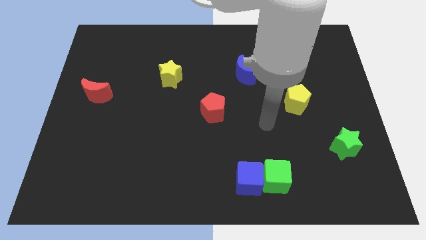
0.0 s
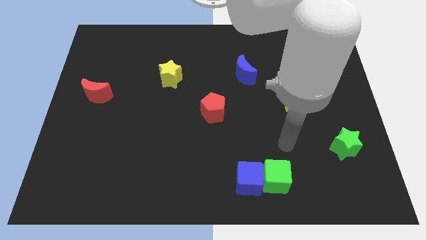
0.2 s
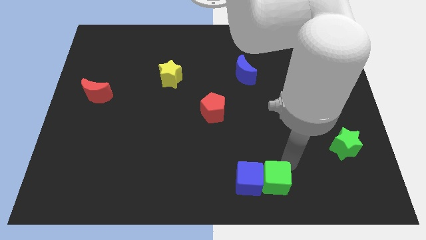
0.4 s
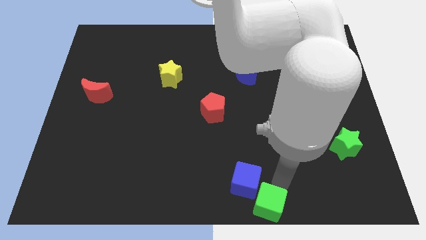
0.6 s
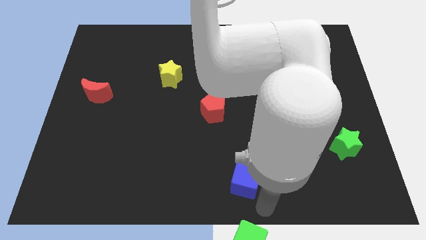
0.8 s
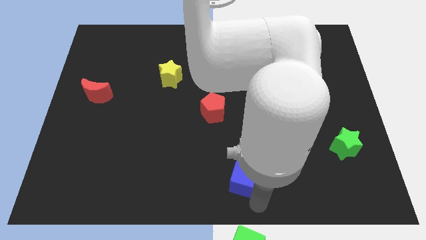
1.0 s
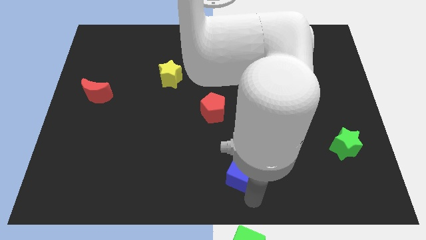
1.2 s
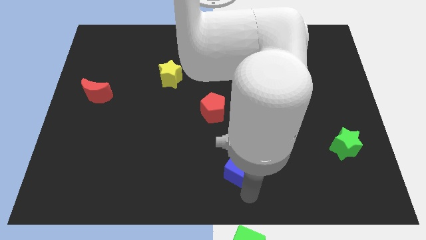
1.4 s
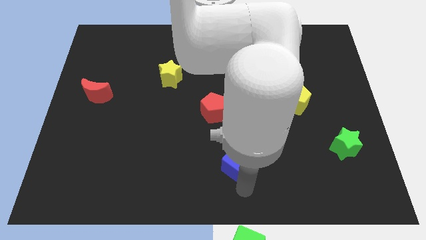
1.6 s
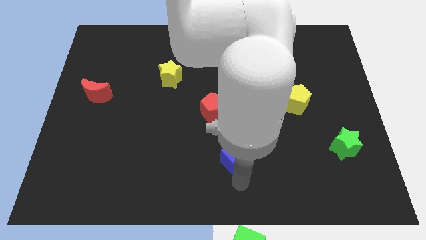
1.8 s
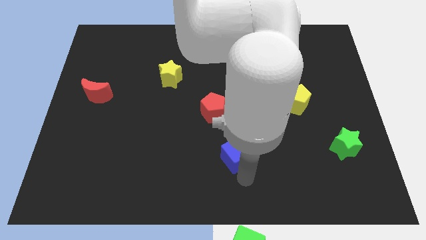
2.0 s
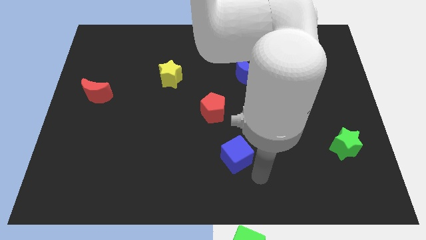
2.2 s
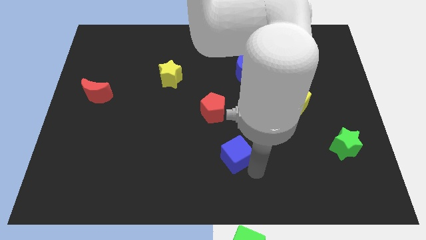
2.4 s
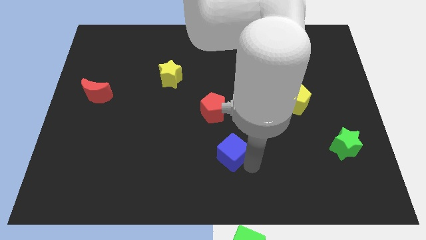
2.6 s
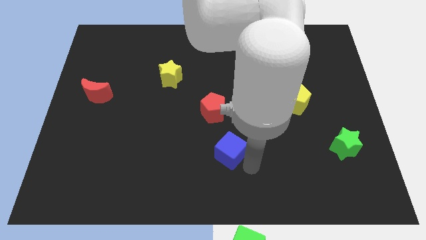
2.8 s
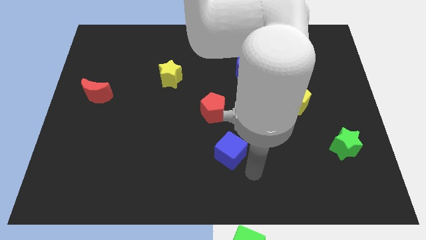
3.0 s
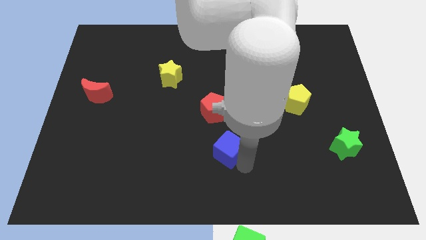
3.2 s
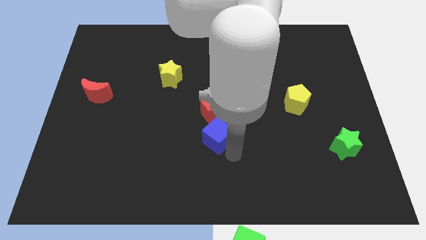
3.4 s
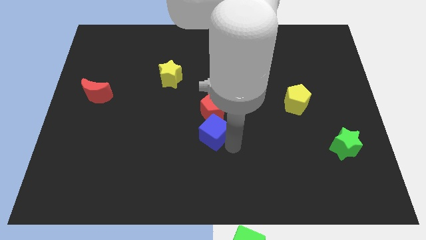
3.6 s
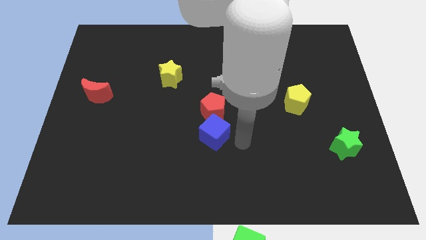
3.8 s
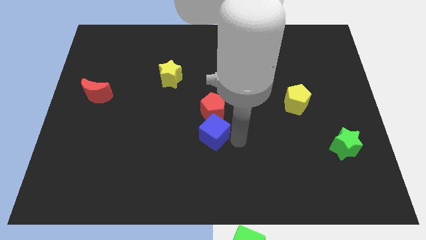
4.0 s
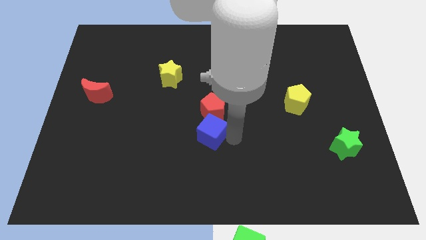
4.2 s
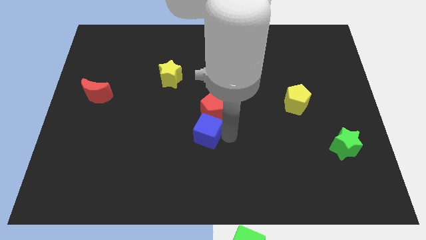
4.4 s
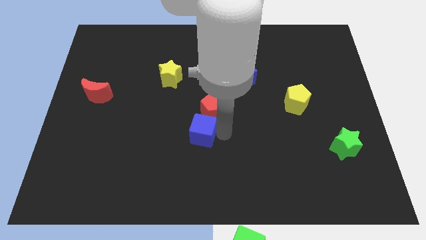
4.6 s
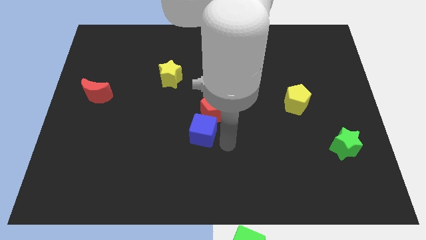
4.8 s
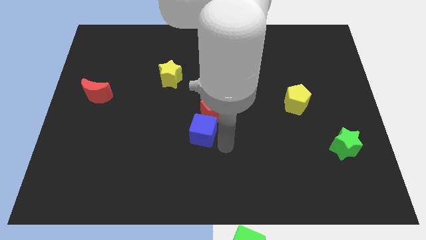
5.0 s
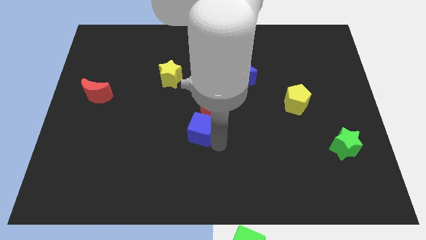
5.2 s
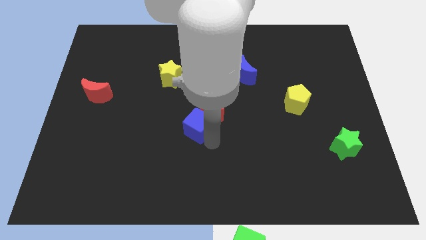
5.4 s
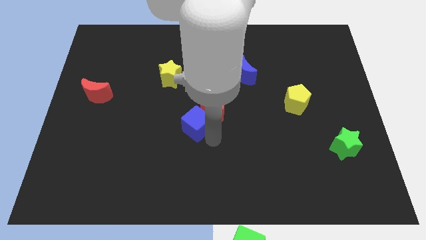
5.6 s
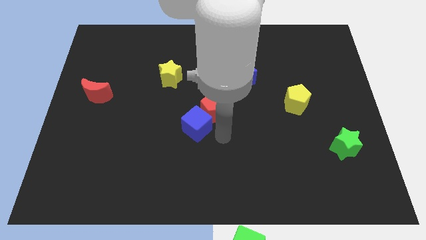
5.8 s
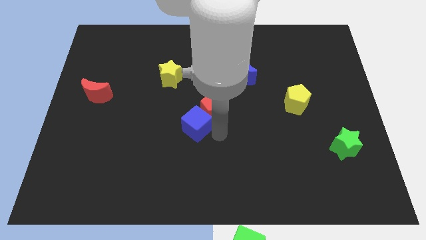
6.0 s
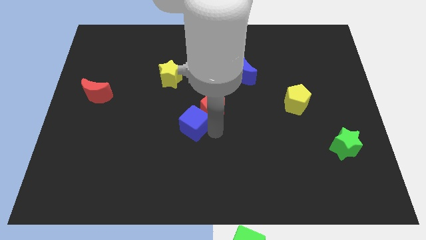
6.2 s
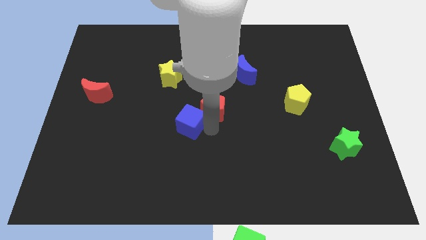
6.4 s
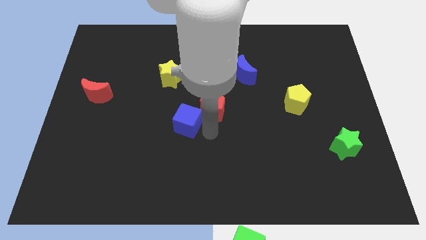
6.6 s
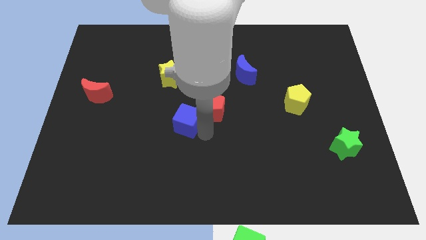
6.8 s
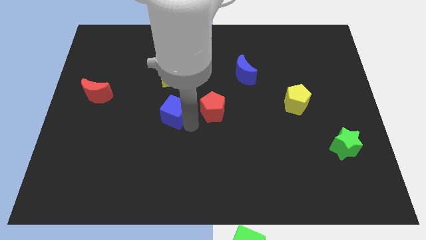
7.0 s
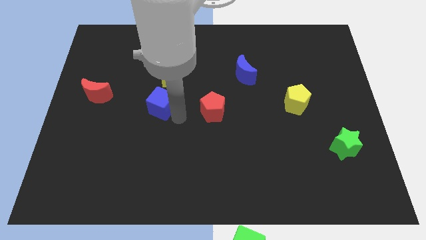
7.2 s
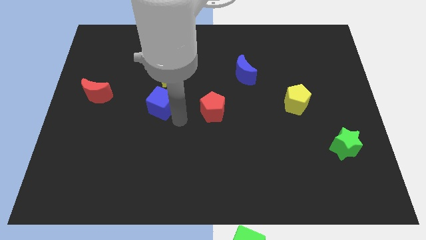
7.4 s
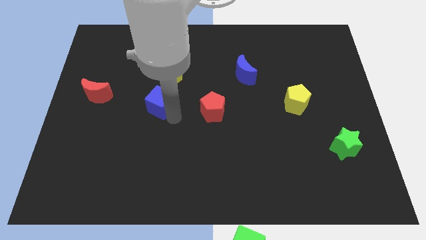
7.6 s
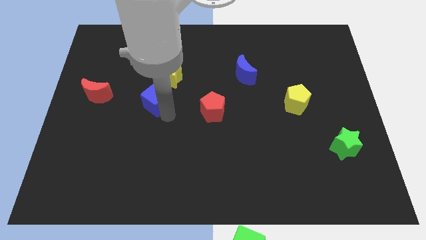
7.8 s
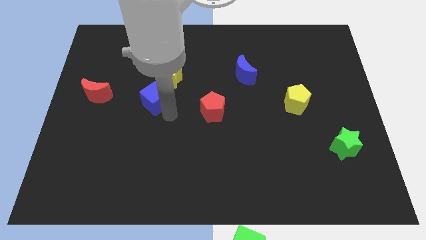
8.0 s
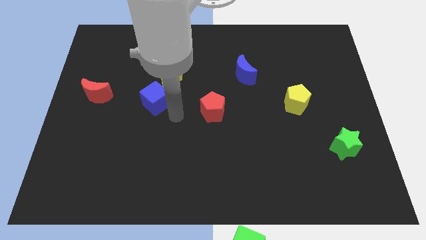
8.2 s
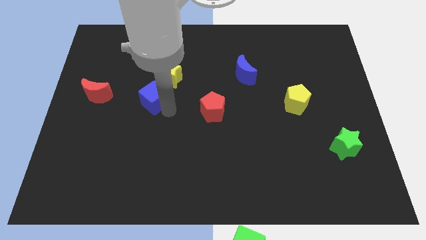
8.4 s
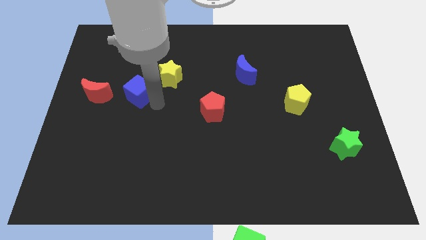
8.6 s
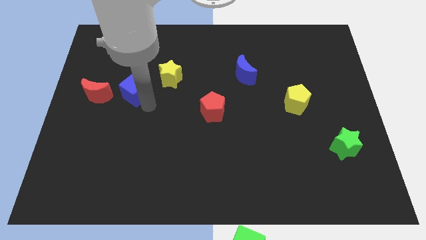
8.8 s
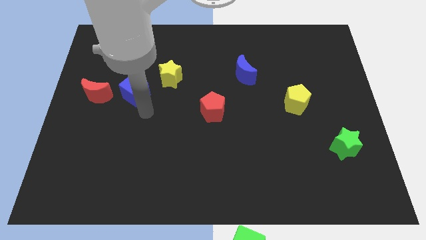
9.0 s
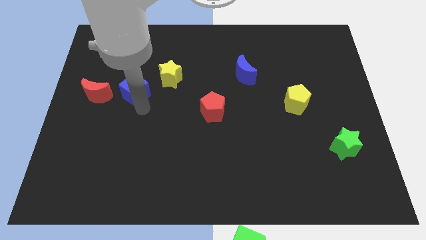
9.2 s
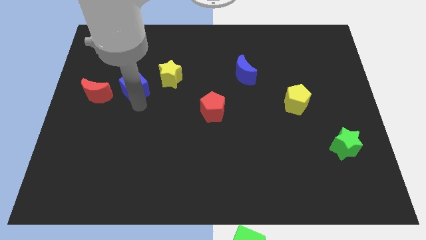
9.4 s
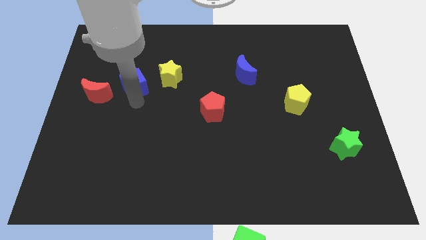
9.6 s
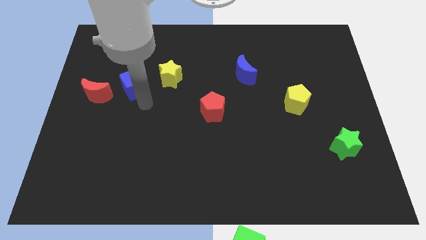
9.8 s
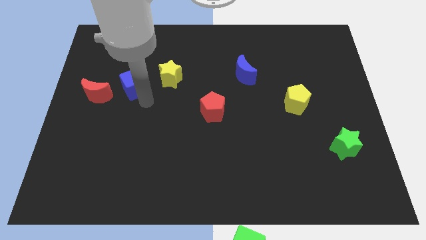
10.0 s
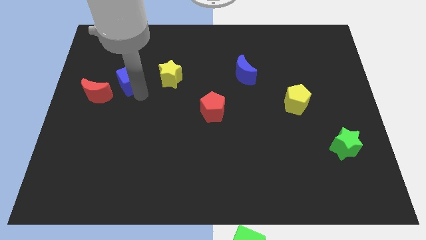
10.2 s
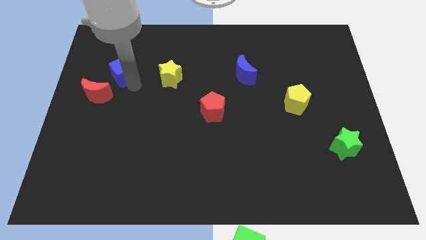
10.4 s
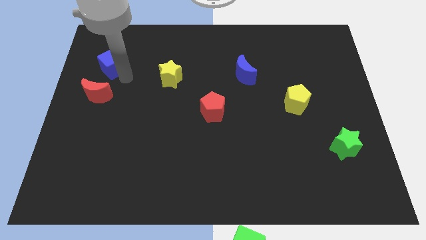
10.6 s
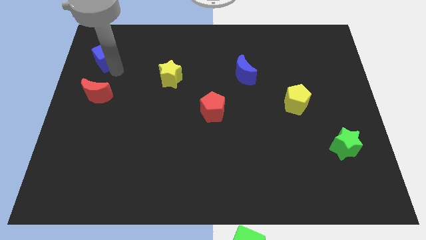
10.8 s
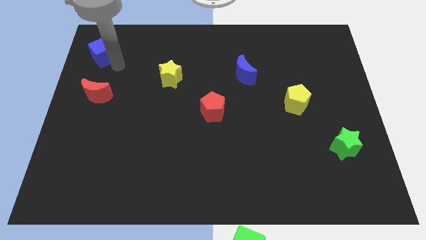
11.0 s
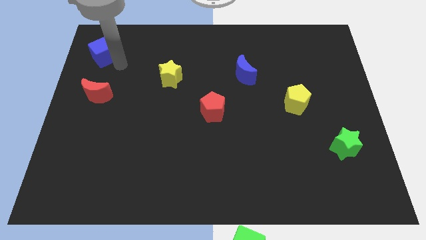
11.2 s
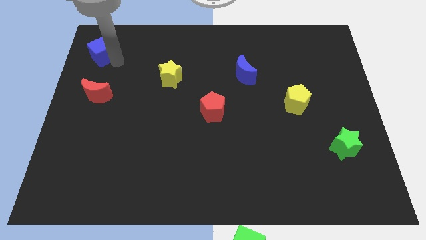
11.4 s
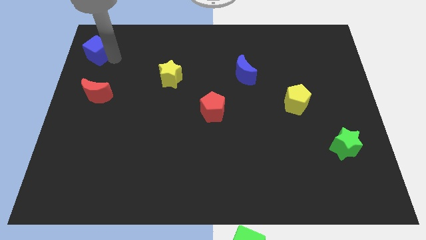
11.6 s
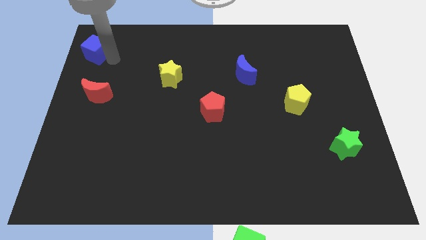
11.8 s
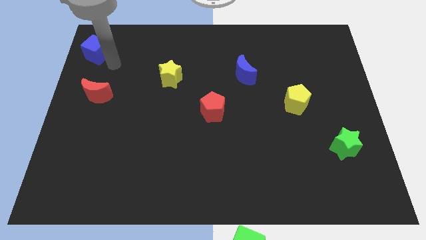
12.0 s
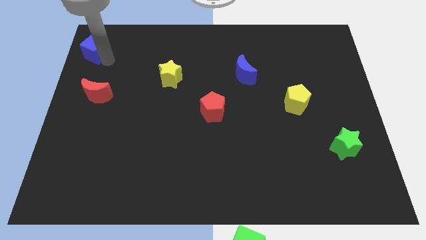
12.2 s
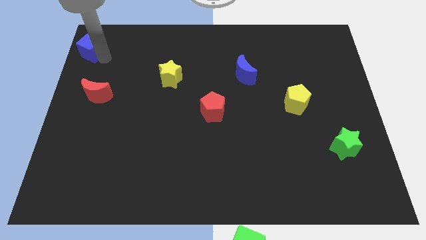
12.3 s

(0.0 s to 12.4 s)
slide the blue cube to the top left of the board

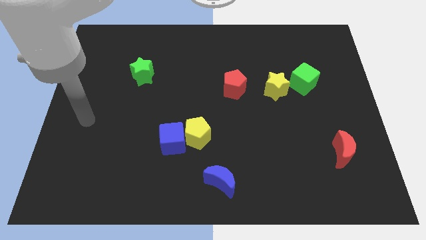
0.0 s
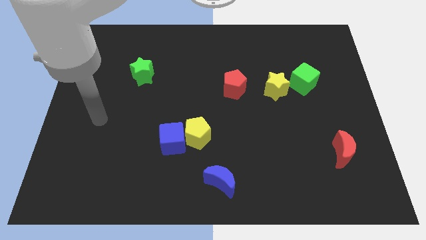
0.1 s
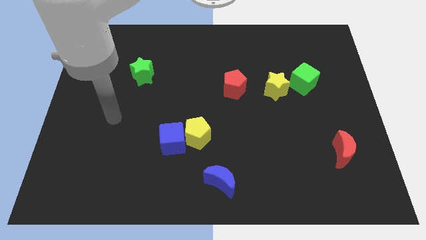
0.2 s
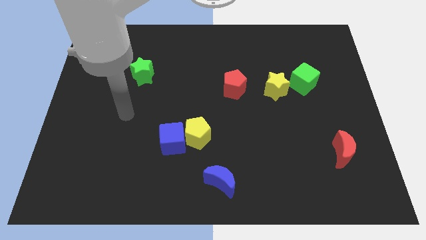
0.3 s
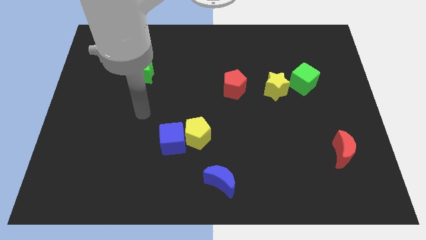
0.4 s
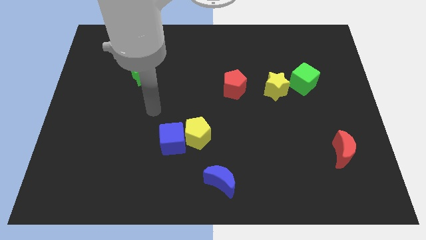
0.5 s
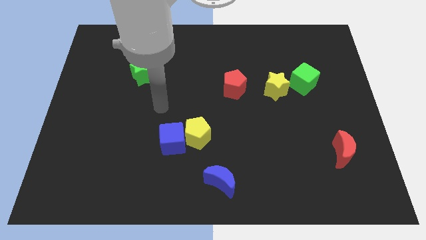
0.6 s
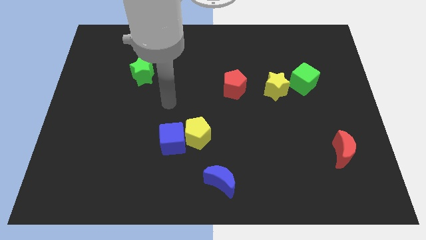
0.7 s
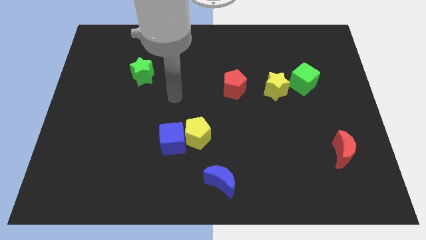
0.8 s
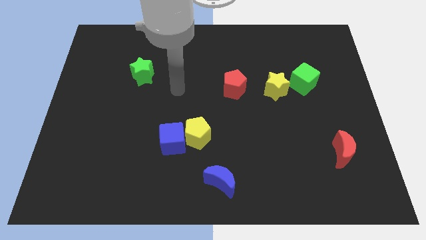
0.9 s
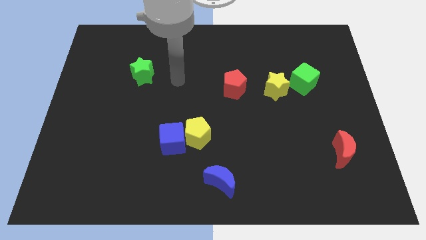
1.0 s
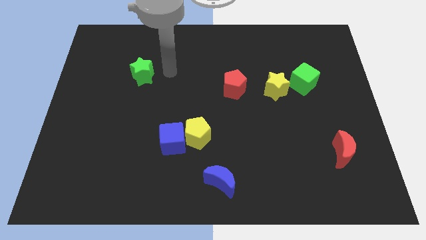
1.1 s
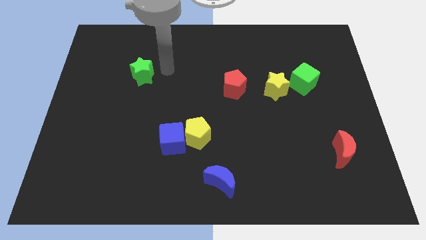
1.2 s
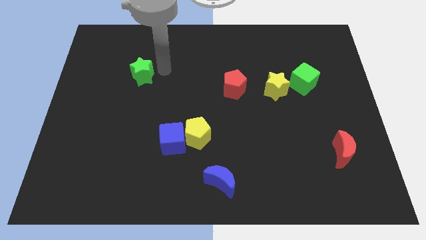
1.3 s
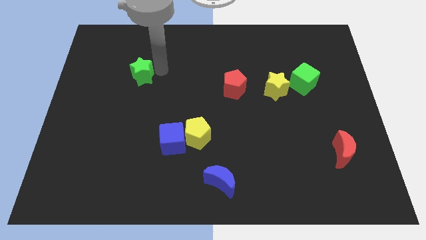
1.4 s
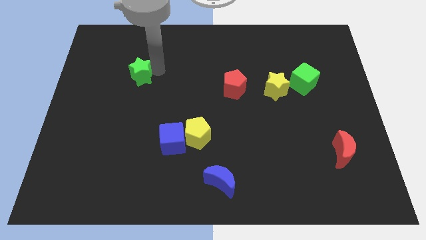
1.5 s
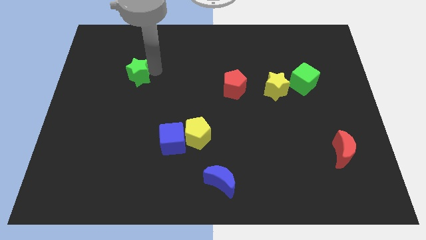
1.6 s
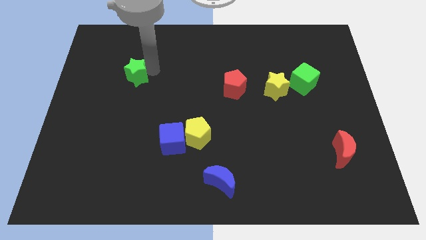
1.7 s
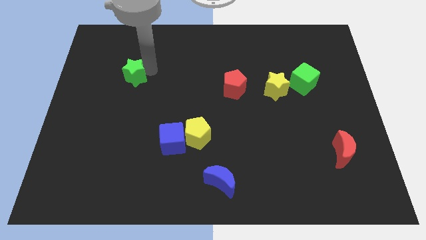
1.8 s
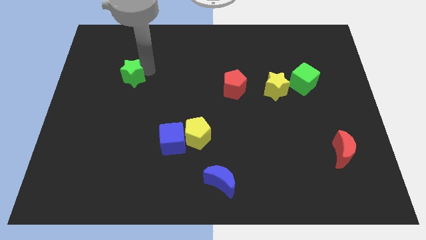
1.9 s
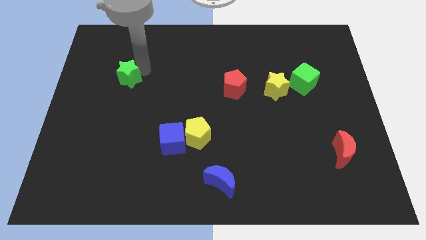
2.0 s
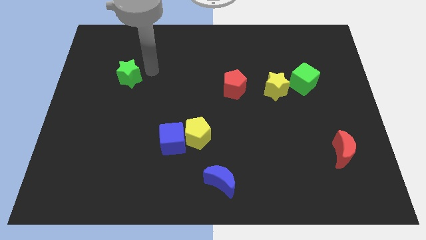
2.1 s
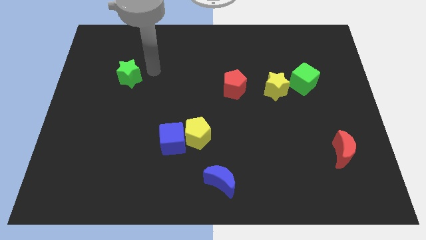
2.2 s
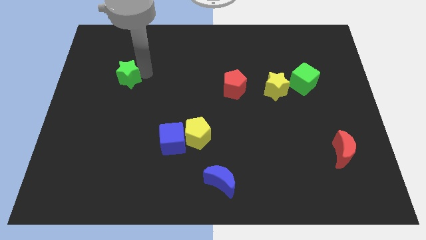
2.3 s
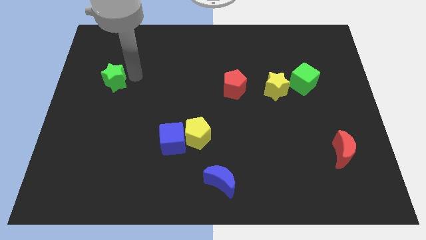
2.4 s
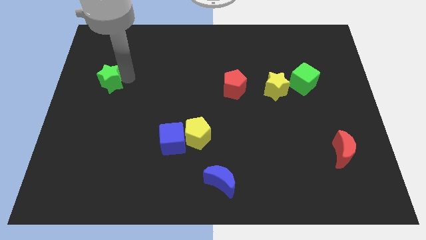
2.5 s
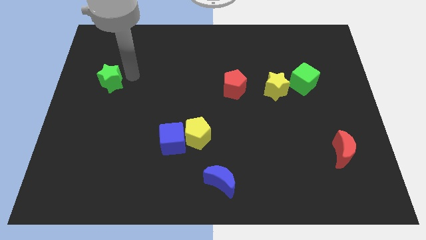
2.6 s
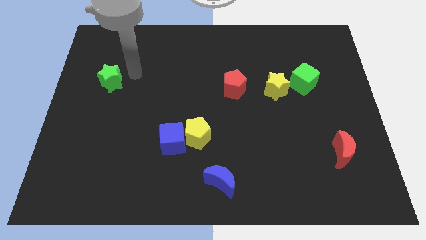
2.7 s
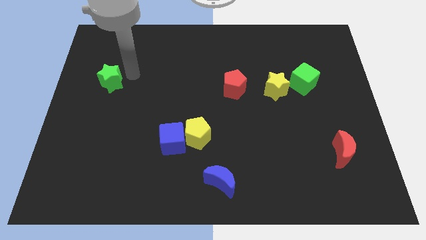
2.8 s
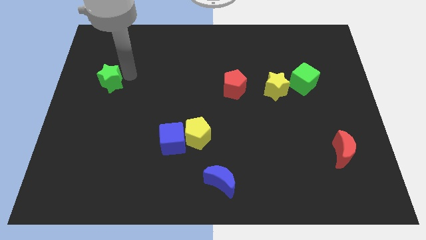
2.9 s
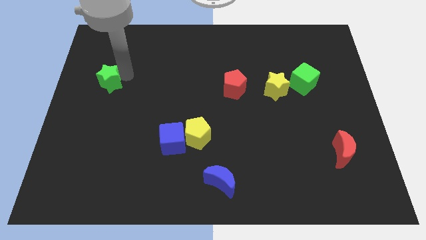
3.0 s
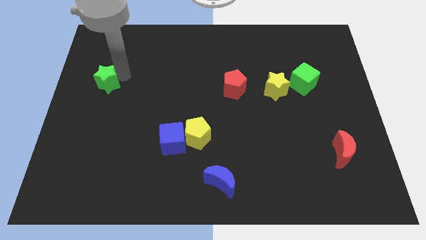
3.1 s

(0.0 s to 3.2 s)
put the green star to the left side
